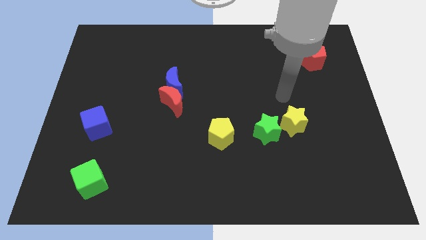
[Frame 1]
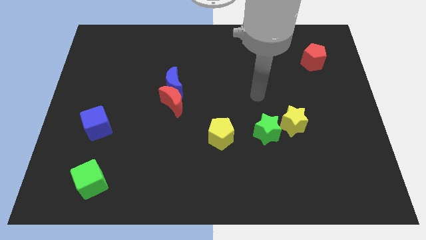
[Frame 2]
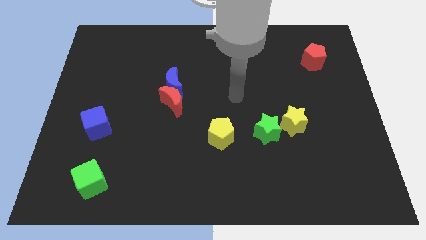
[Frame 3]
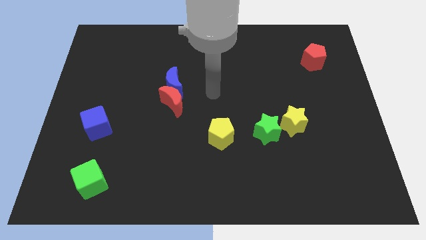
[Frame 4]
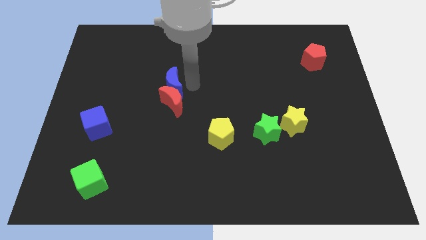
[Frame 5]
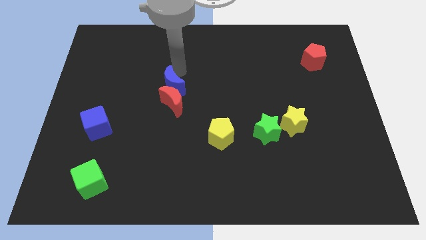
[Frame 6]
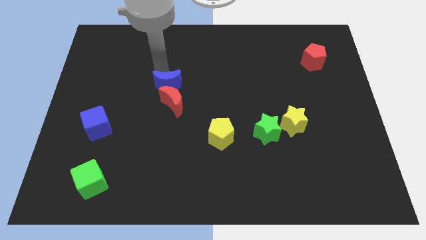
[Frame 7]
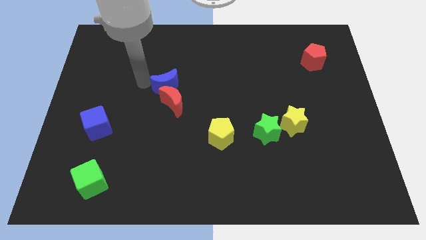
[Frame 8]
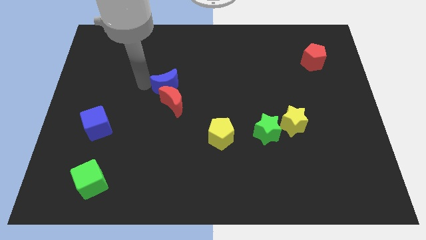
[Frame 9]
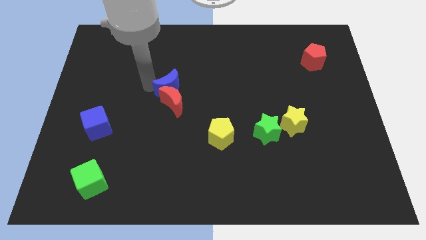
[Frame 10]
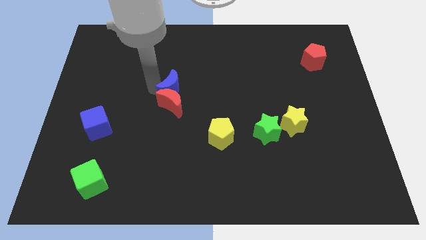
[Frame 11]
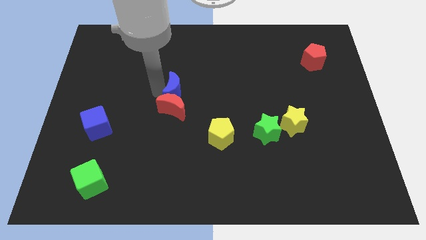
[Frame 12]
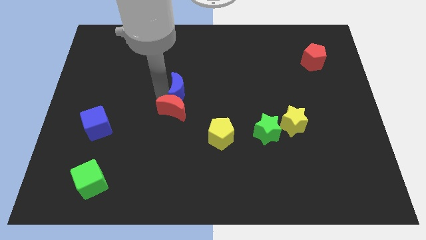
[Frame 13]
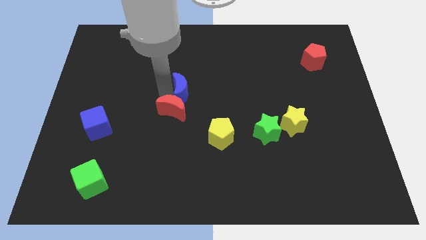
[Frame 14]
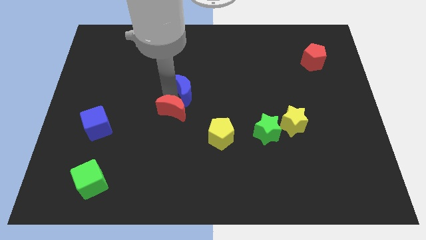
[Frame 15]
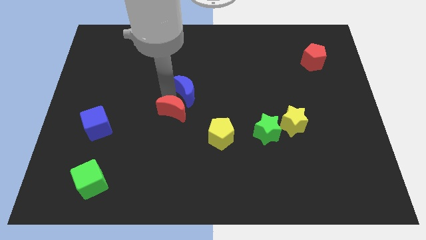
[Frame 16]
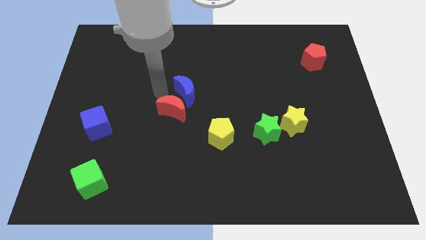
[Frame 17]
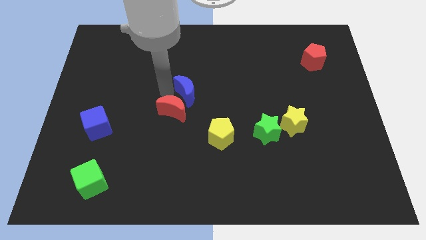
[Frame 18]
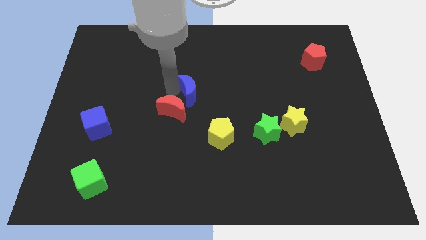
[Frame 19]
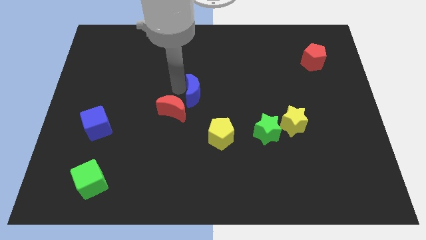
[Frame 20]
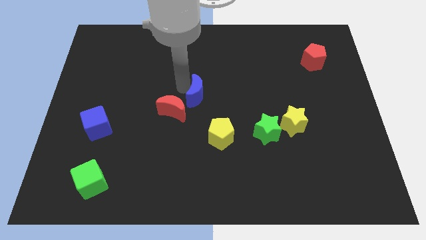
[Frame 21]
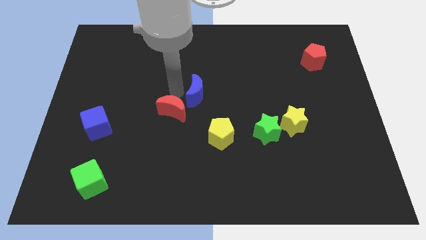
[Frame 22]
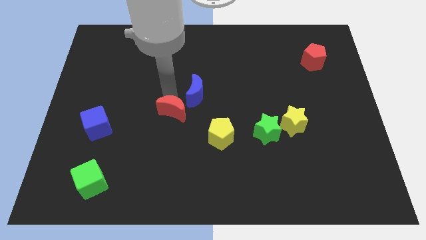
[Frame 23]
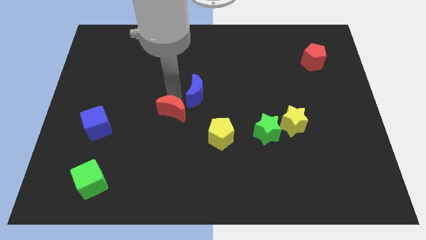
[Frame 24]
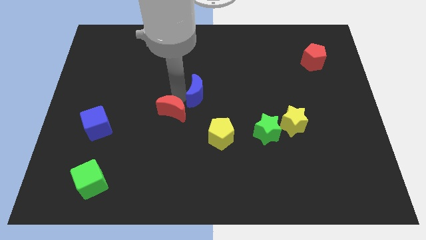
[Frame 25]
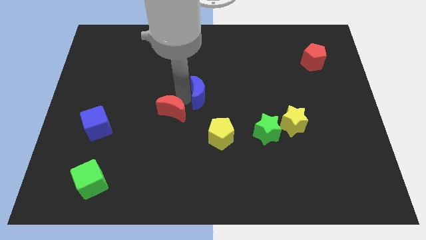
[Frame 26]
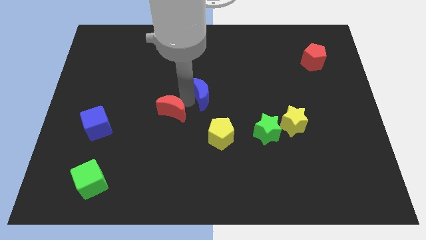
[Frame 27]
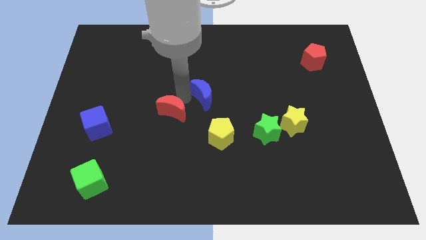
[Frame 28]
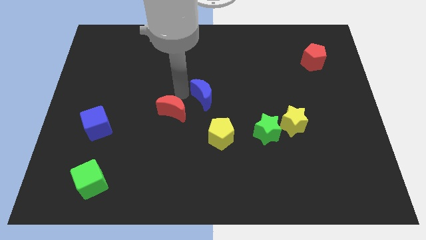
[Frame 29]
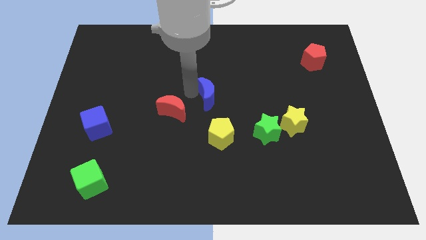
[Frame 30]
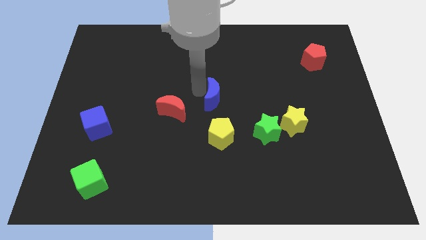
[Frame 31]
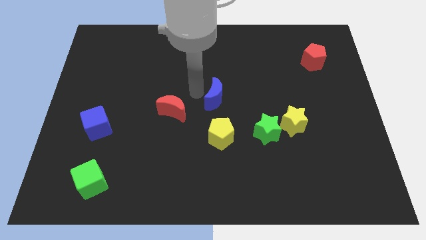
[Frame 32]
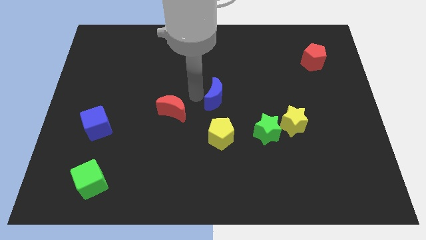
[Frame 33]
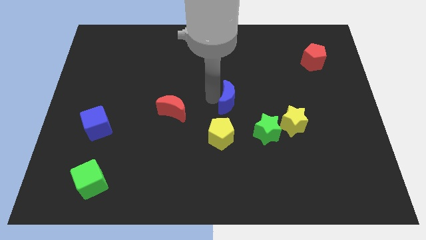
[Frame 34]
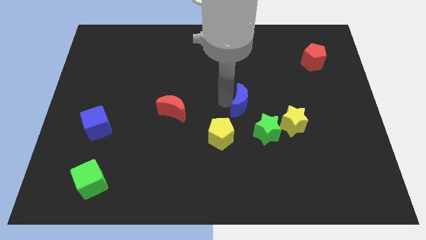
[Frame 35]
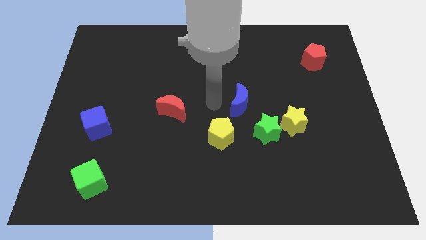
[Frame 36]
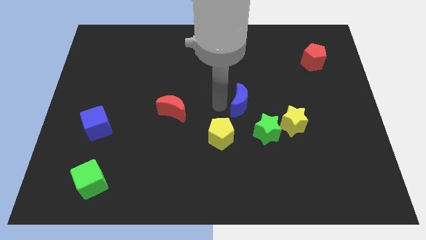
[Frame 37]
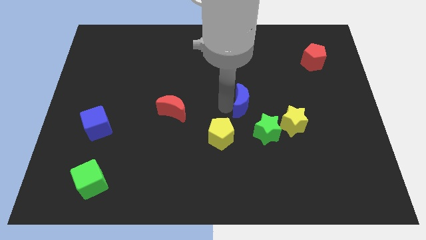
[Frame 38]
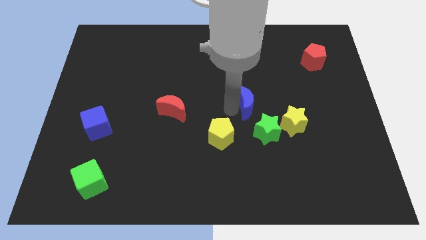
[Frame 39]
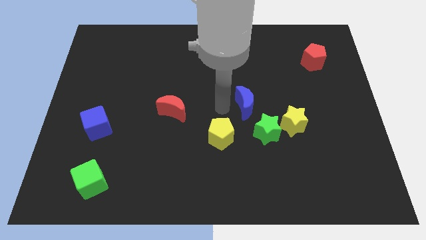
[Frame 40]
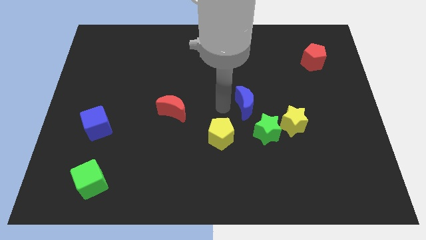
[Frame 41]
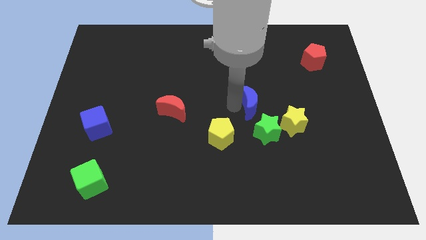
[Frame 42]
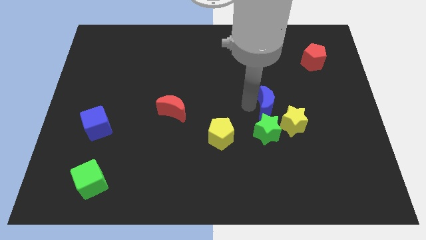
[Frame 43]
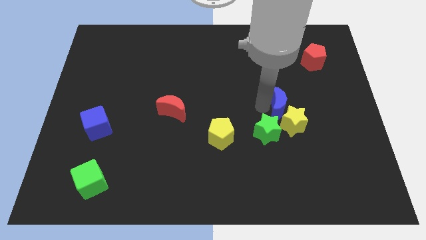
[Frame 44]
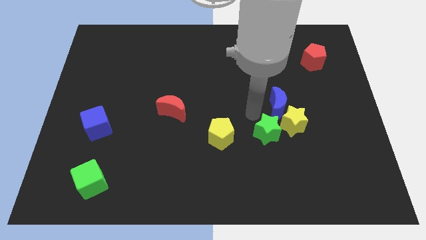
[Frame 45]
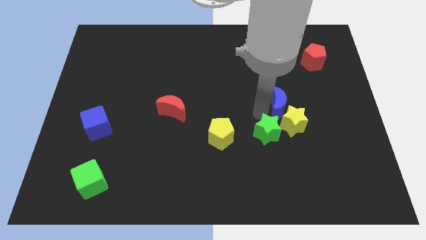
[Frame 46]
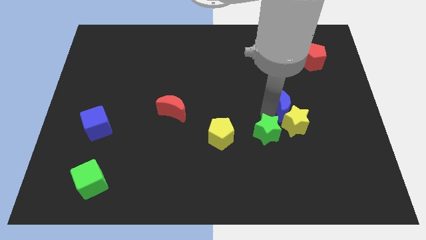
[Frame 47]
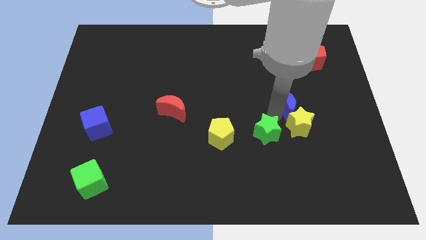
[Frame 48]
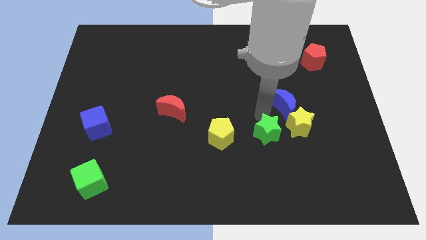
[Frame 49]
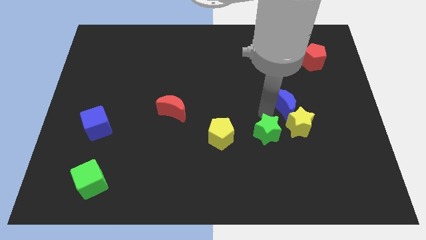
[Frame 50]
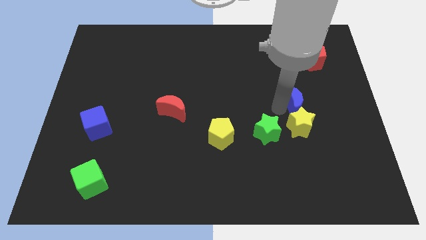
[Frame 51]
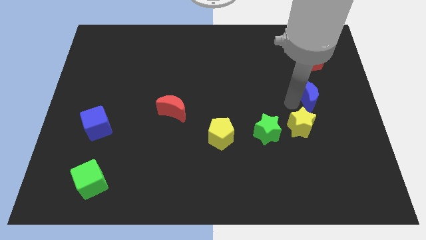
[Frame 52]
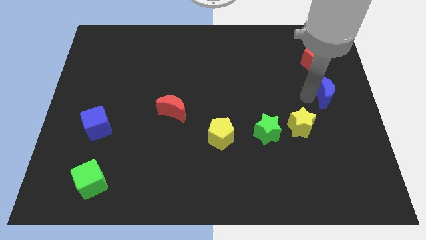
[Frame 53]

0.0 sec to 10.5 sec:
slide the blue moon to the right side

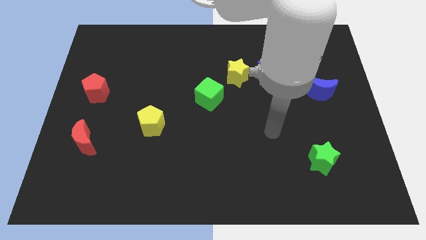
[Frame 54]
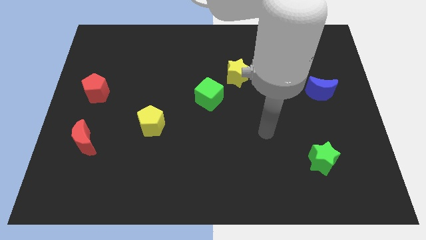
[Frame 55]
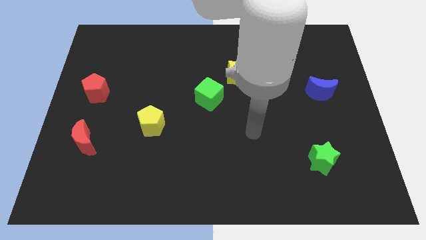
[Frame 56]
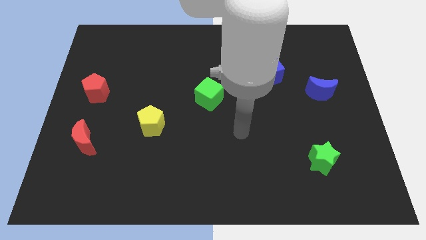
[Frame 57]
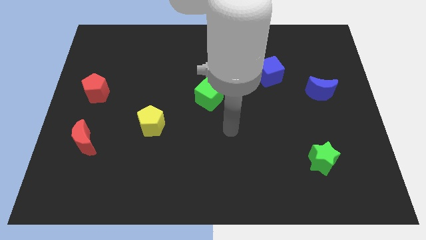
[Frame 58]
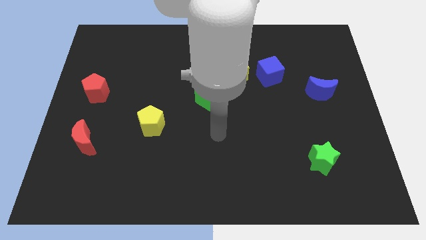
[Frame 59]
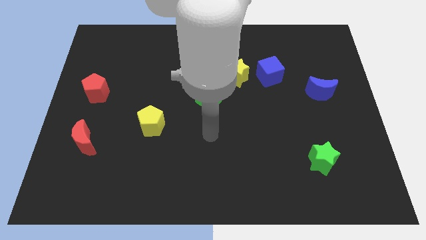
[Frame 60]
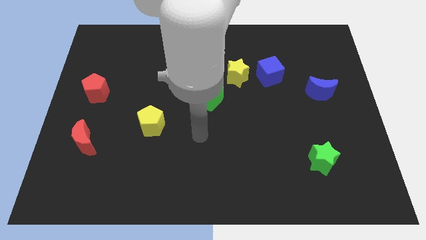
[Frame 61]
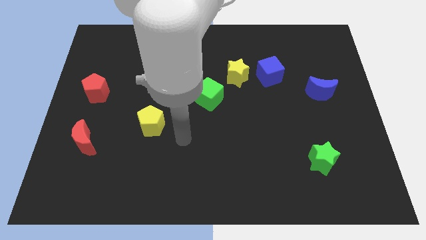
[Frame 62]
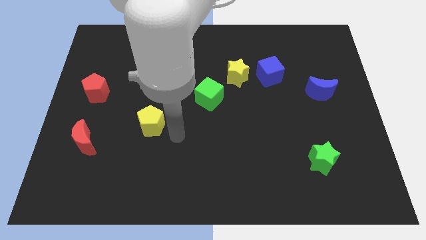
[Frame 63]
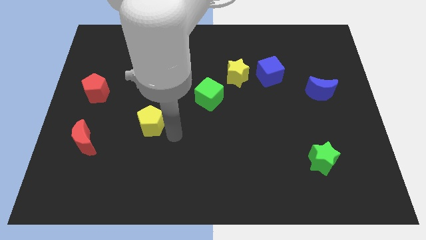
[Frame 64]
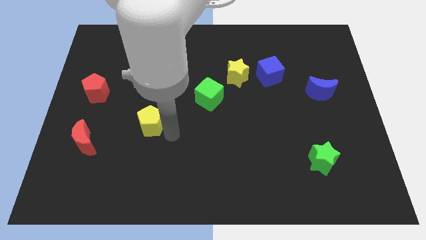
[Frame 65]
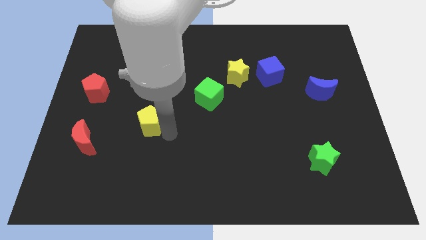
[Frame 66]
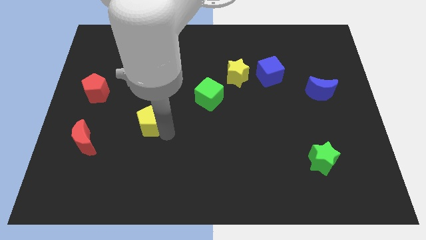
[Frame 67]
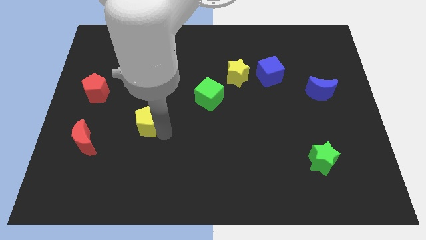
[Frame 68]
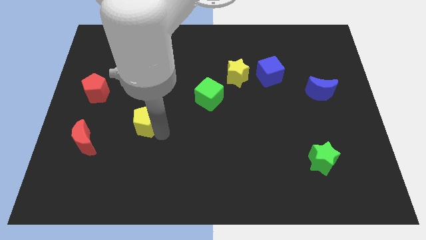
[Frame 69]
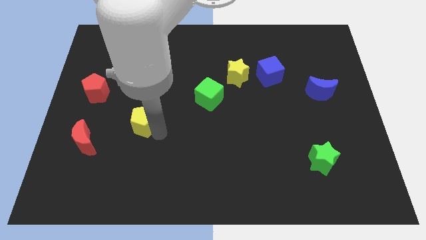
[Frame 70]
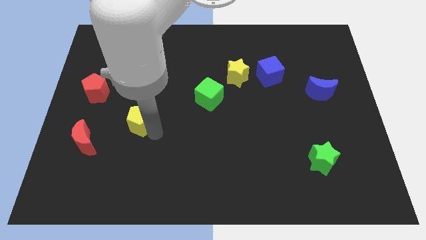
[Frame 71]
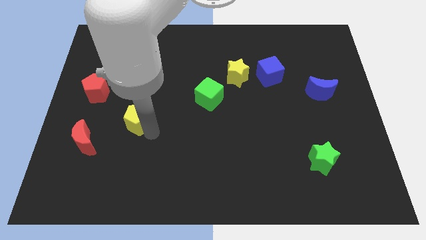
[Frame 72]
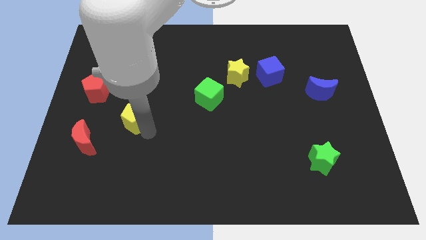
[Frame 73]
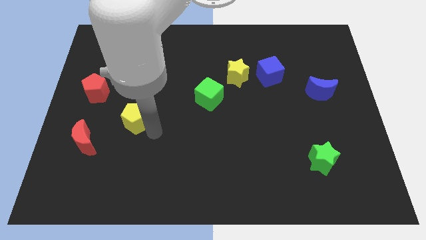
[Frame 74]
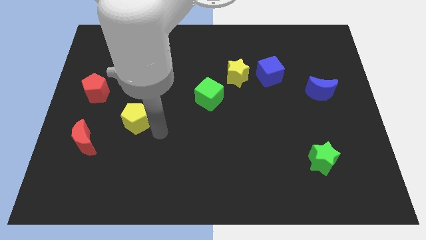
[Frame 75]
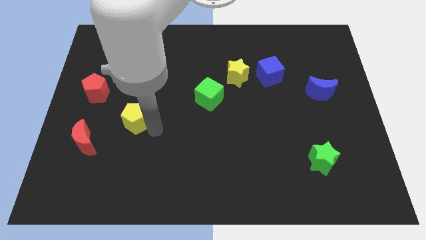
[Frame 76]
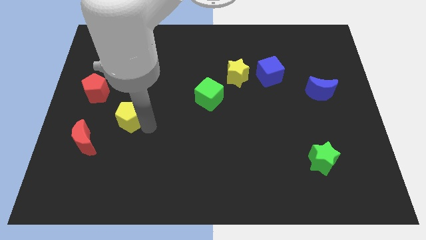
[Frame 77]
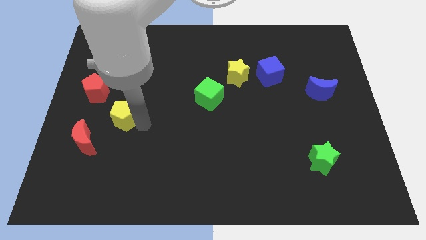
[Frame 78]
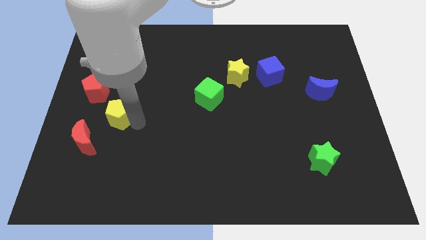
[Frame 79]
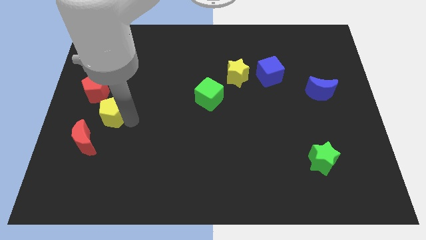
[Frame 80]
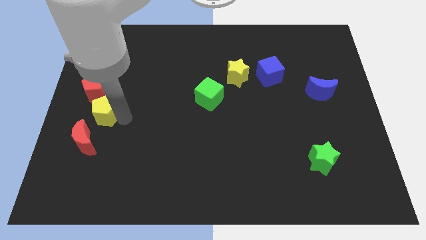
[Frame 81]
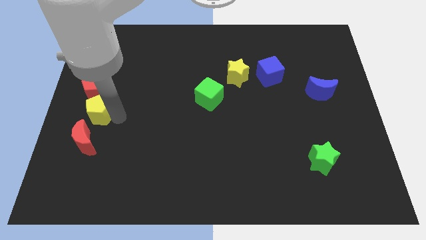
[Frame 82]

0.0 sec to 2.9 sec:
put the yellow pentagon to the left side of the board
